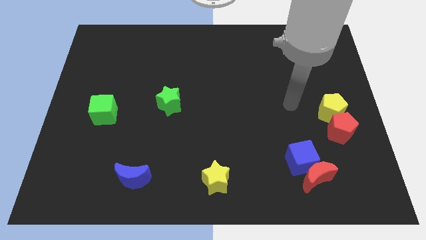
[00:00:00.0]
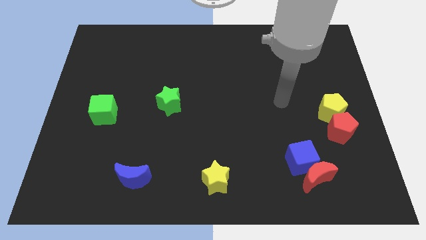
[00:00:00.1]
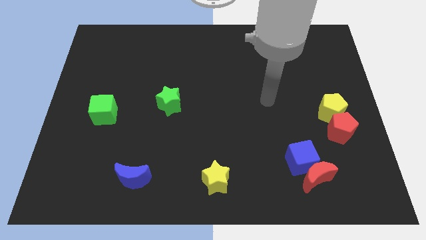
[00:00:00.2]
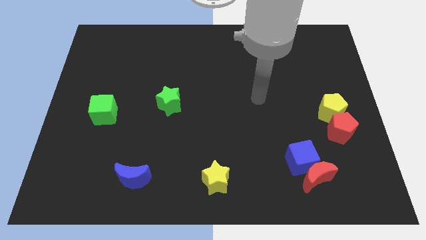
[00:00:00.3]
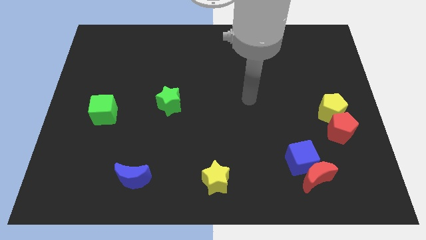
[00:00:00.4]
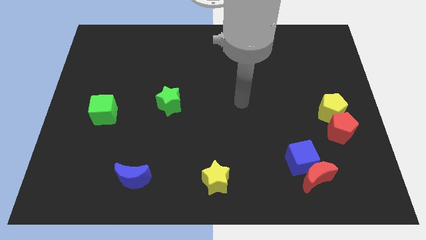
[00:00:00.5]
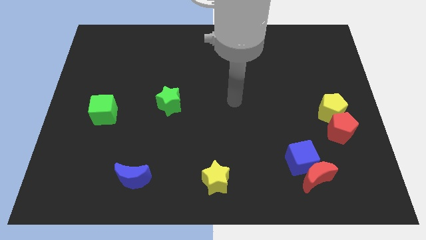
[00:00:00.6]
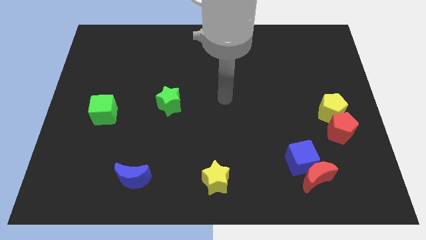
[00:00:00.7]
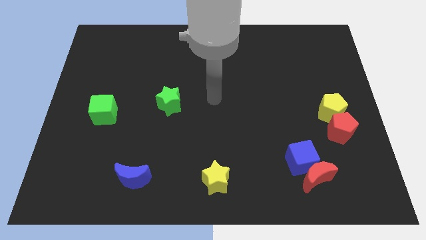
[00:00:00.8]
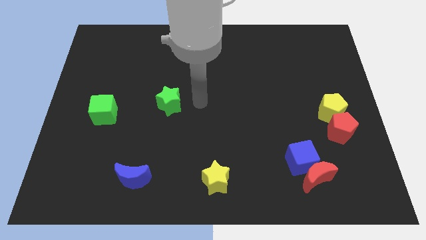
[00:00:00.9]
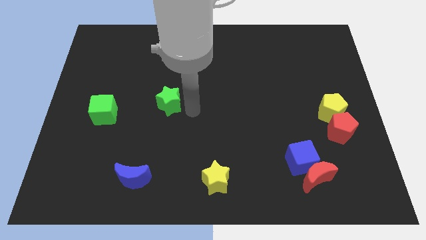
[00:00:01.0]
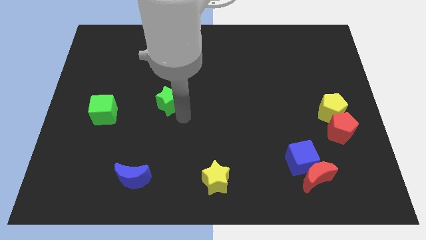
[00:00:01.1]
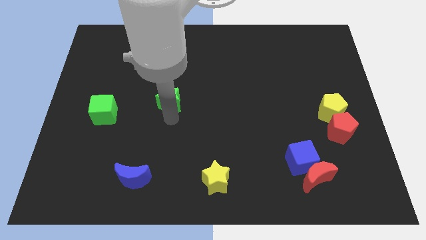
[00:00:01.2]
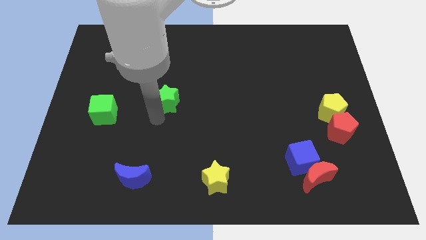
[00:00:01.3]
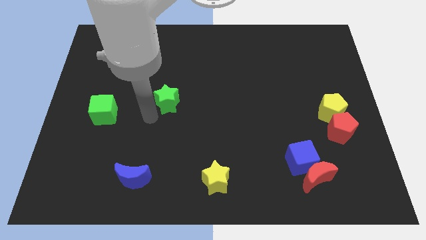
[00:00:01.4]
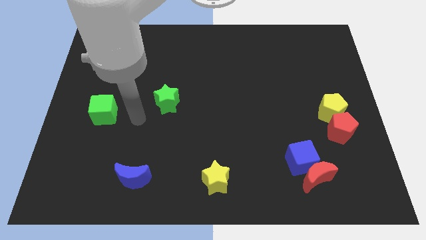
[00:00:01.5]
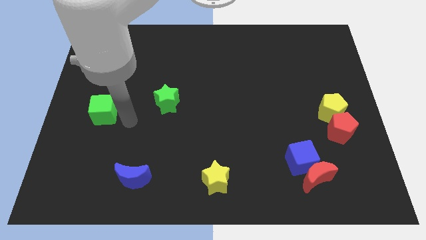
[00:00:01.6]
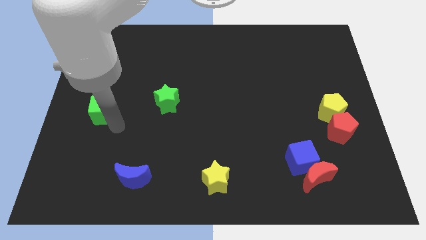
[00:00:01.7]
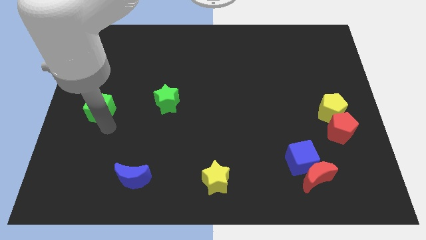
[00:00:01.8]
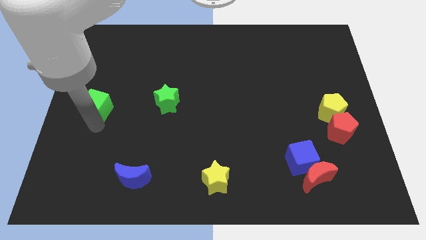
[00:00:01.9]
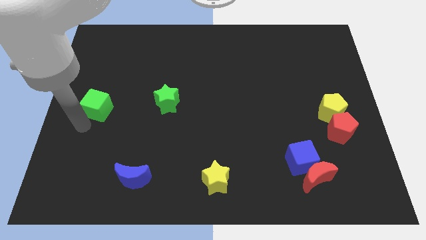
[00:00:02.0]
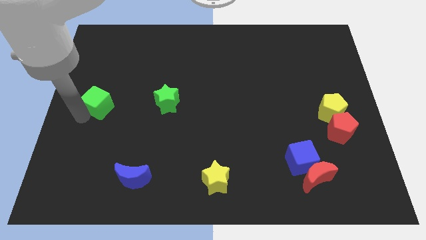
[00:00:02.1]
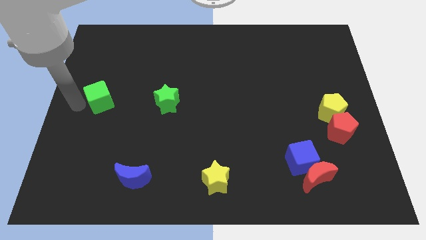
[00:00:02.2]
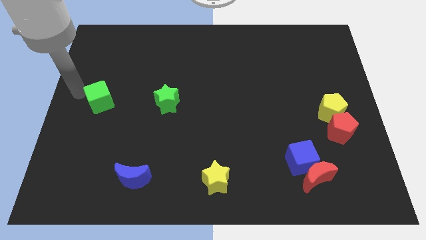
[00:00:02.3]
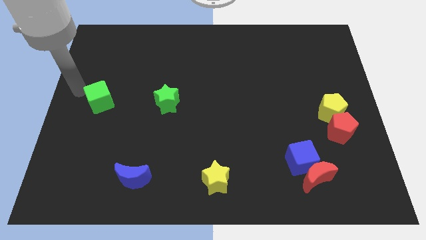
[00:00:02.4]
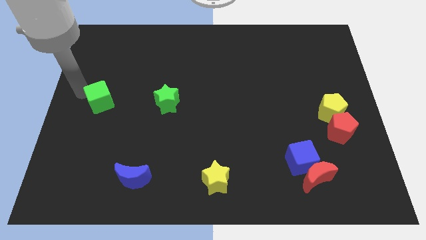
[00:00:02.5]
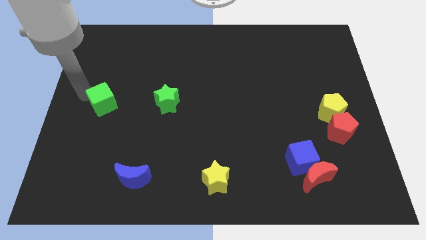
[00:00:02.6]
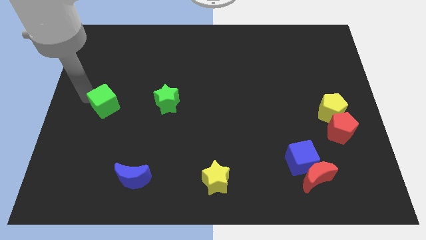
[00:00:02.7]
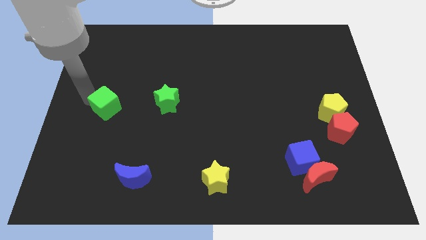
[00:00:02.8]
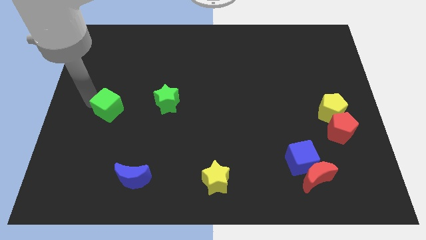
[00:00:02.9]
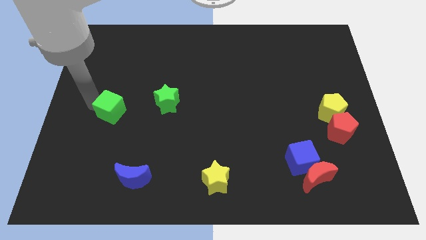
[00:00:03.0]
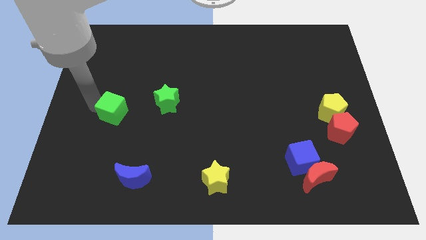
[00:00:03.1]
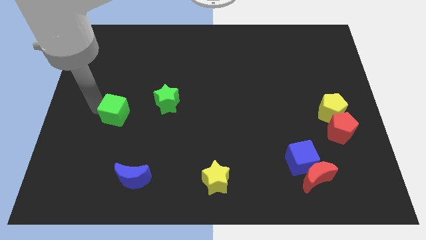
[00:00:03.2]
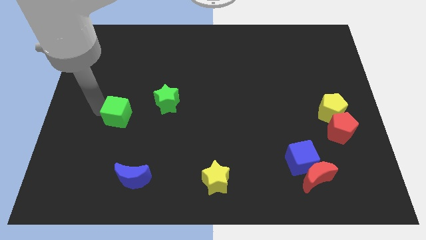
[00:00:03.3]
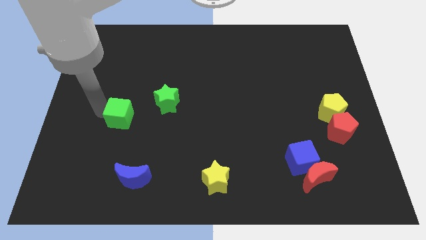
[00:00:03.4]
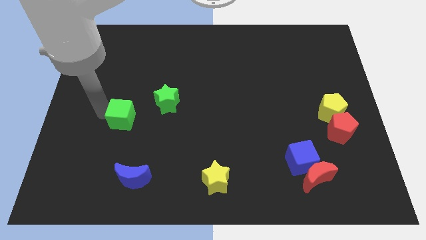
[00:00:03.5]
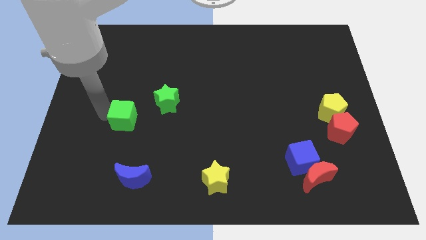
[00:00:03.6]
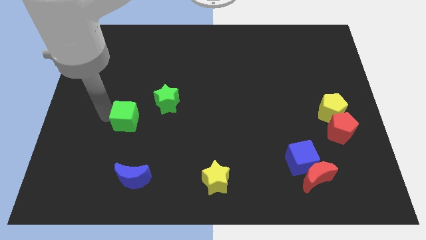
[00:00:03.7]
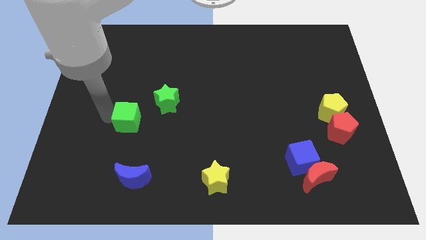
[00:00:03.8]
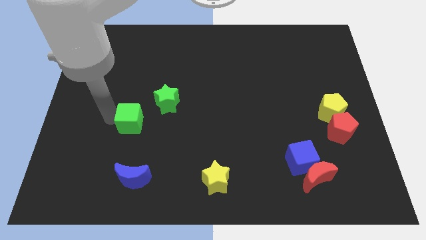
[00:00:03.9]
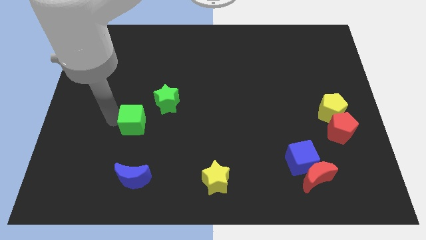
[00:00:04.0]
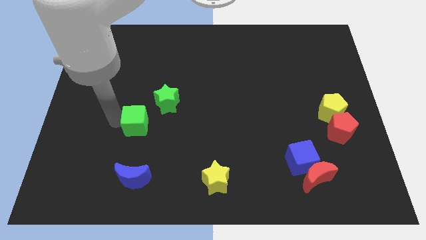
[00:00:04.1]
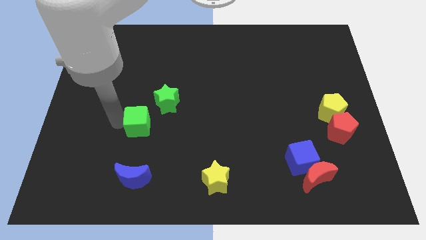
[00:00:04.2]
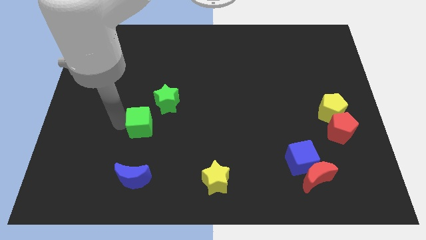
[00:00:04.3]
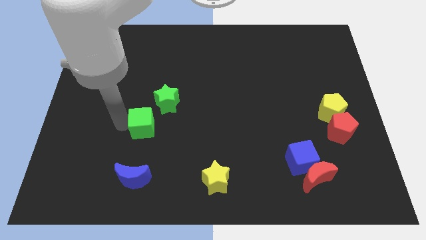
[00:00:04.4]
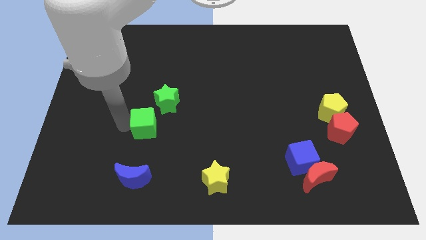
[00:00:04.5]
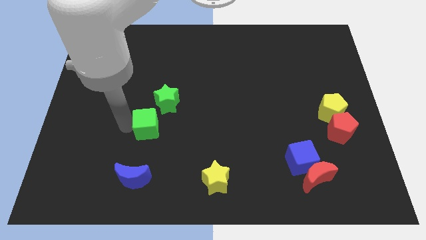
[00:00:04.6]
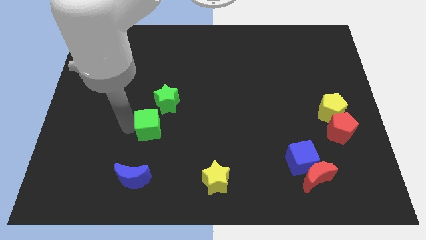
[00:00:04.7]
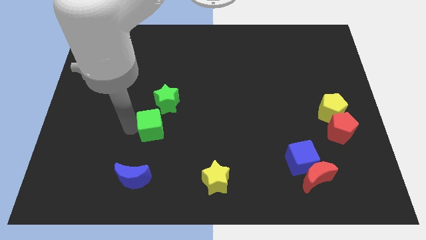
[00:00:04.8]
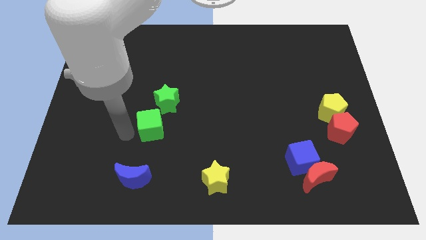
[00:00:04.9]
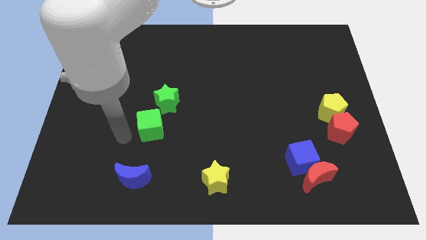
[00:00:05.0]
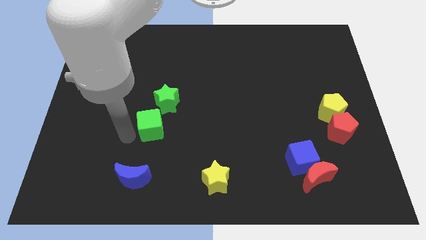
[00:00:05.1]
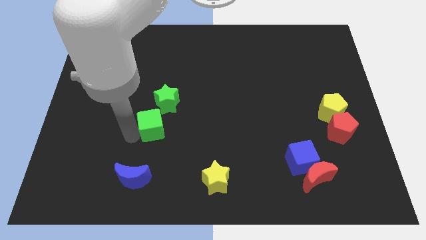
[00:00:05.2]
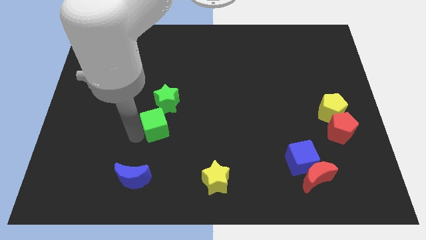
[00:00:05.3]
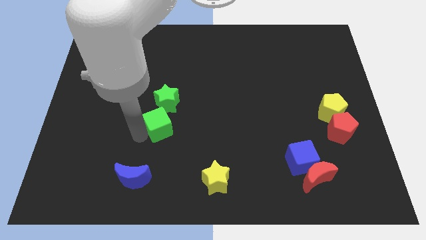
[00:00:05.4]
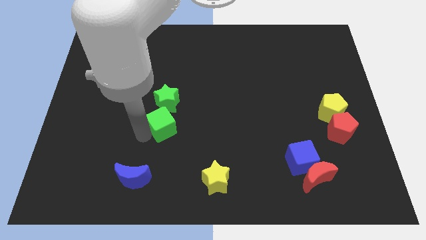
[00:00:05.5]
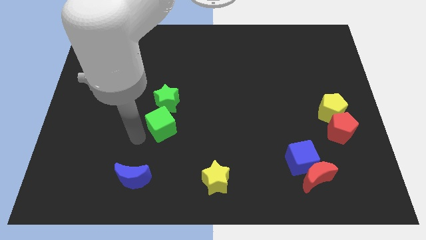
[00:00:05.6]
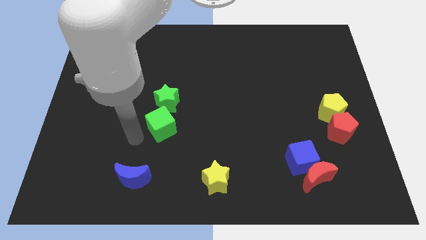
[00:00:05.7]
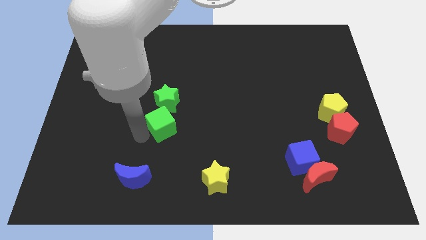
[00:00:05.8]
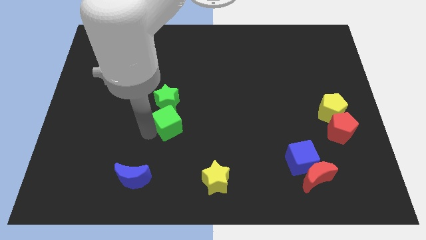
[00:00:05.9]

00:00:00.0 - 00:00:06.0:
move the green cube to the middle of the board

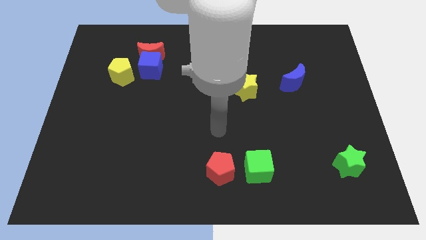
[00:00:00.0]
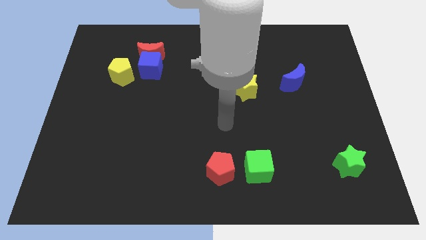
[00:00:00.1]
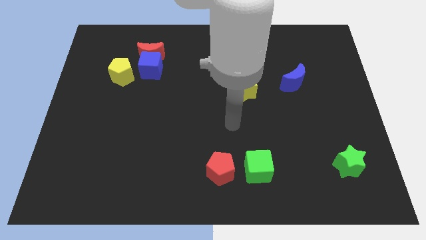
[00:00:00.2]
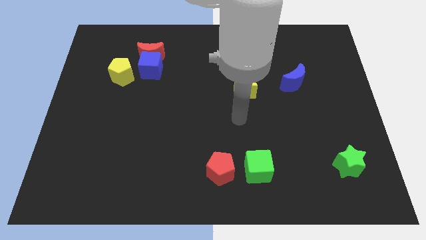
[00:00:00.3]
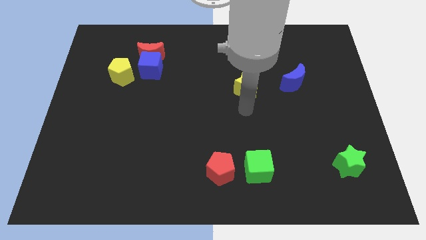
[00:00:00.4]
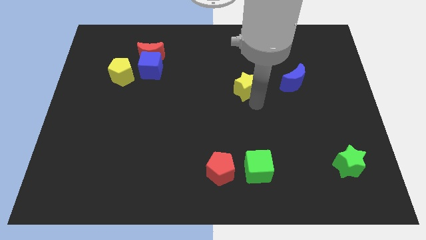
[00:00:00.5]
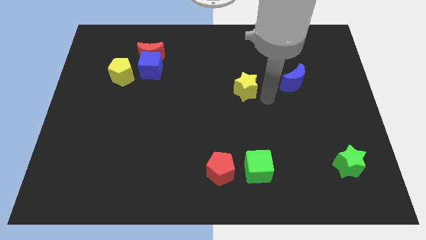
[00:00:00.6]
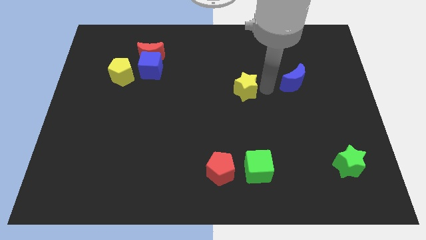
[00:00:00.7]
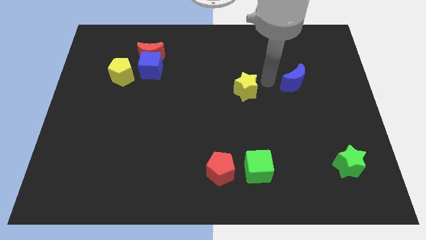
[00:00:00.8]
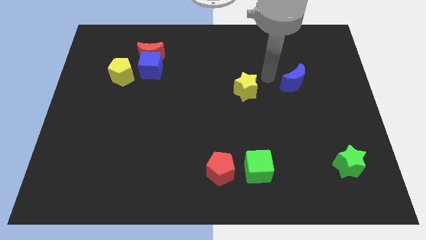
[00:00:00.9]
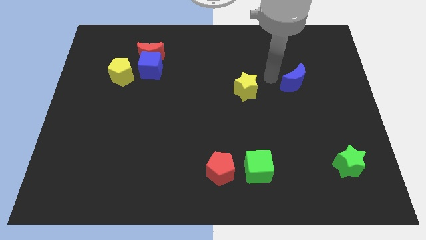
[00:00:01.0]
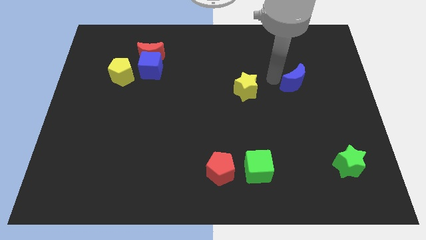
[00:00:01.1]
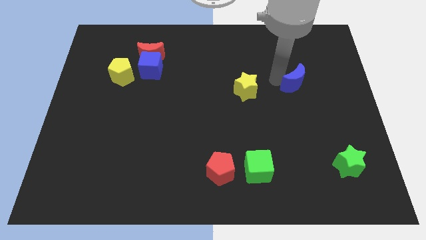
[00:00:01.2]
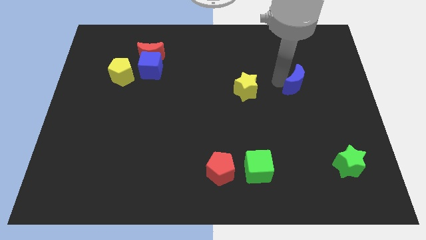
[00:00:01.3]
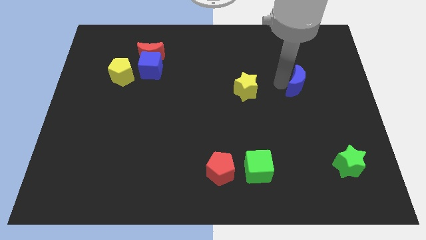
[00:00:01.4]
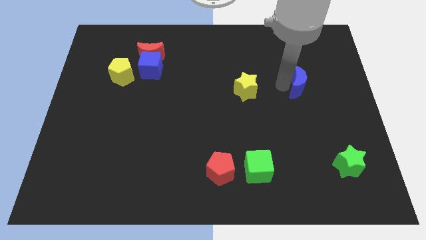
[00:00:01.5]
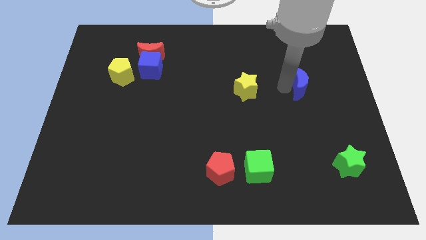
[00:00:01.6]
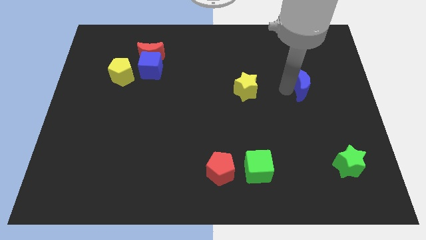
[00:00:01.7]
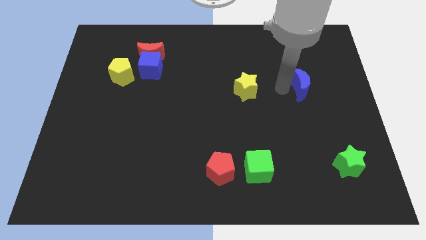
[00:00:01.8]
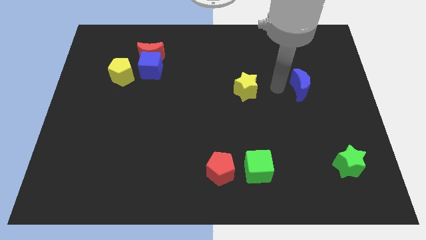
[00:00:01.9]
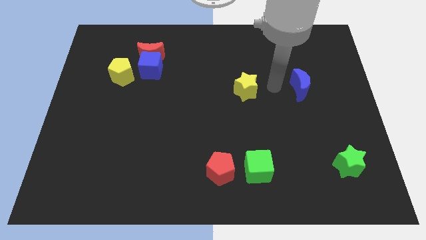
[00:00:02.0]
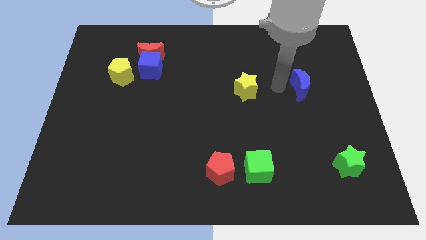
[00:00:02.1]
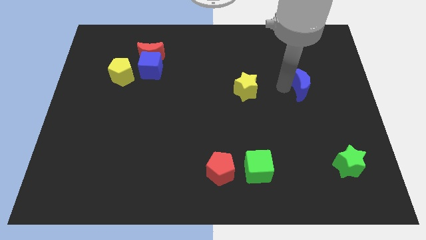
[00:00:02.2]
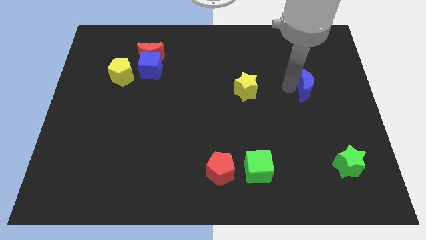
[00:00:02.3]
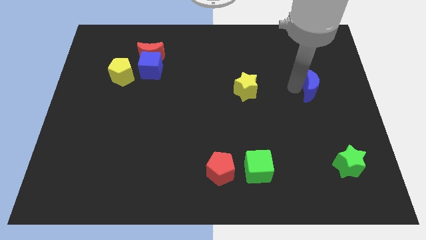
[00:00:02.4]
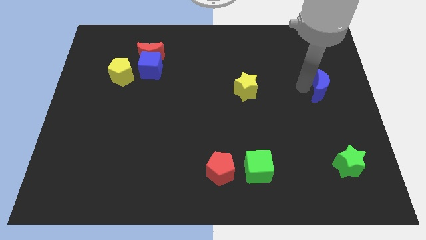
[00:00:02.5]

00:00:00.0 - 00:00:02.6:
put the blue moon to the center right
